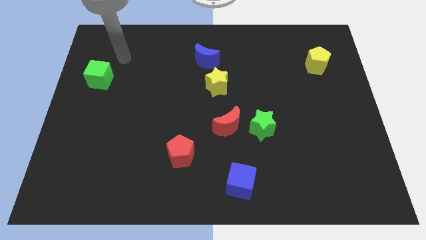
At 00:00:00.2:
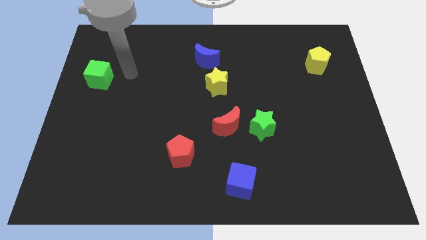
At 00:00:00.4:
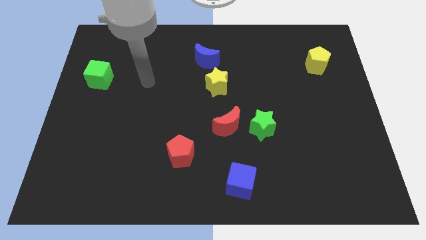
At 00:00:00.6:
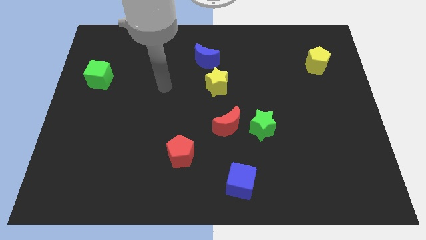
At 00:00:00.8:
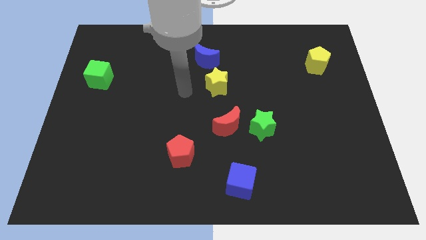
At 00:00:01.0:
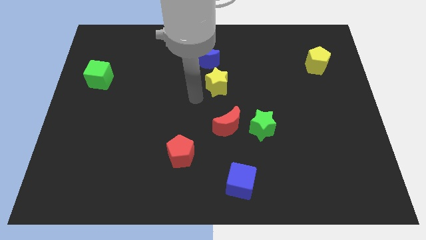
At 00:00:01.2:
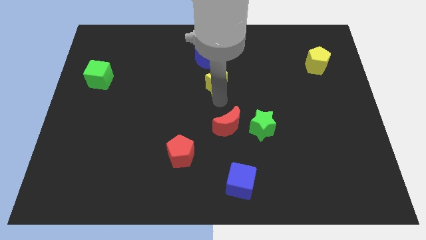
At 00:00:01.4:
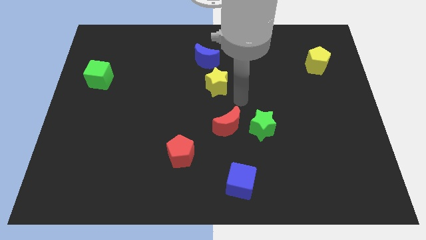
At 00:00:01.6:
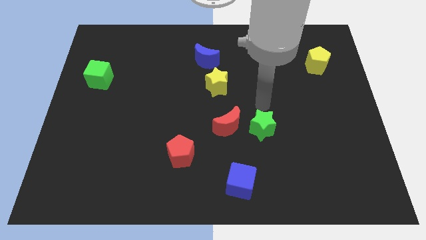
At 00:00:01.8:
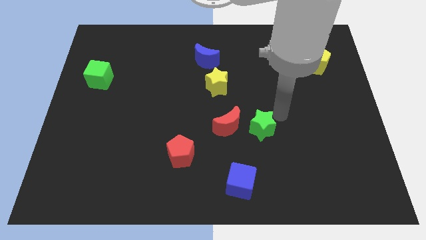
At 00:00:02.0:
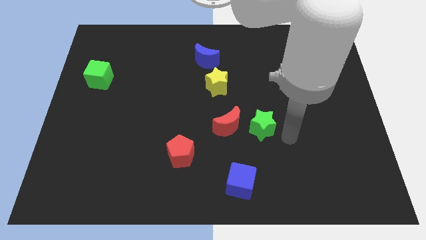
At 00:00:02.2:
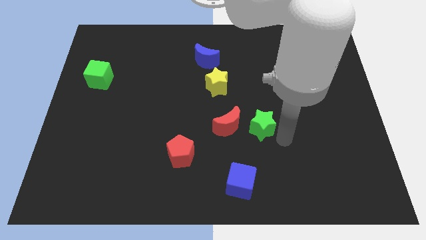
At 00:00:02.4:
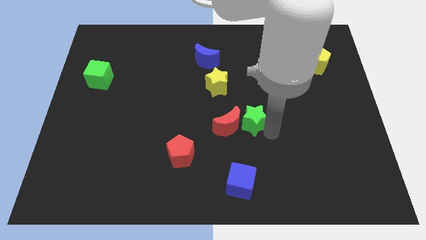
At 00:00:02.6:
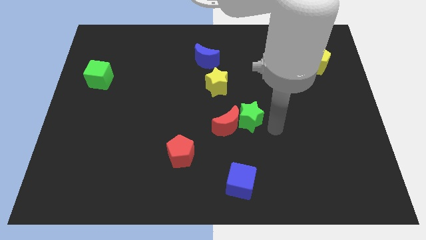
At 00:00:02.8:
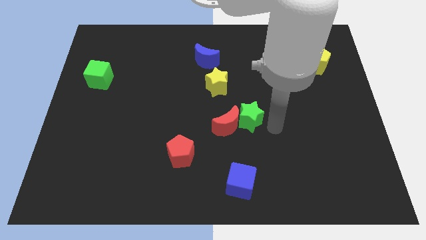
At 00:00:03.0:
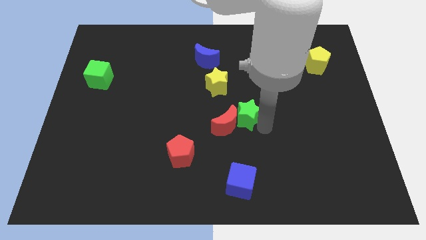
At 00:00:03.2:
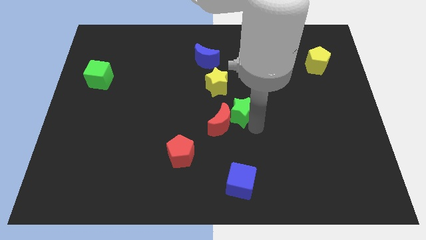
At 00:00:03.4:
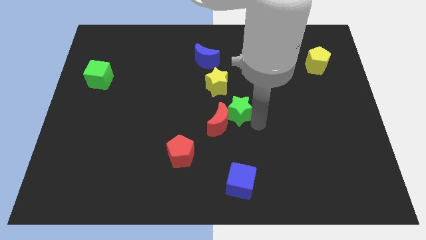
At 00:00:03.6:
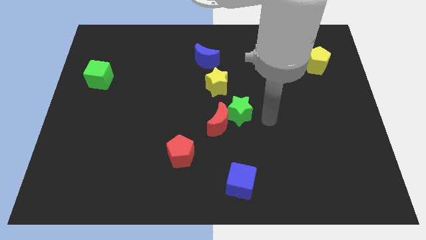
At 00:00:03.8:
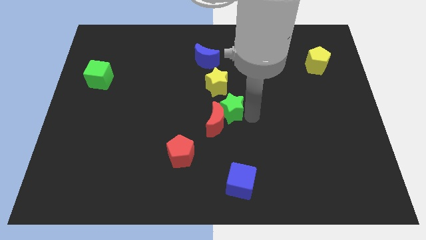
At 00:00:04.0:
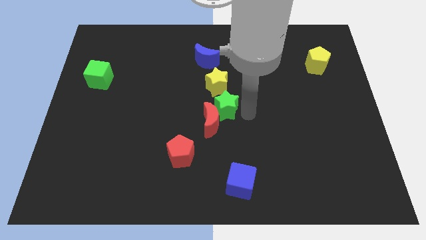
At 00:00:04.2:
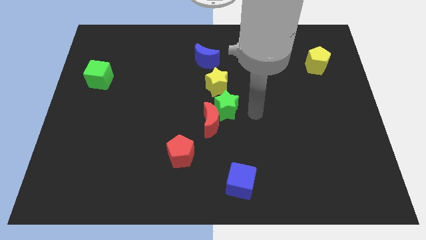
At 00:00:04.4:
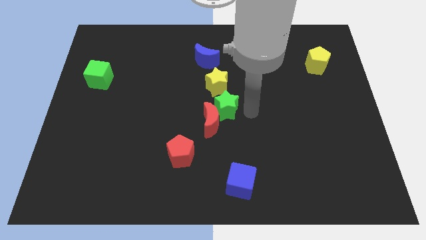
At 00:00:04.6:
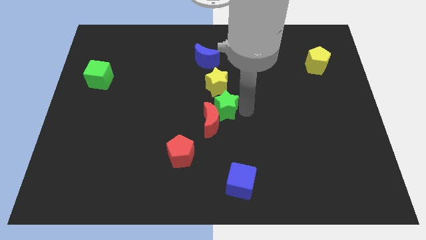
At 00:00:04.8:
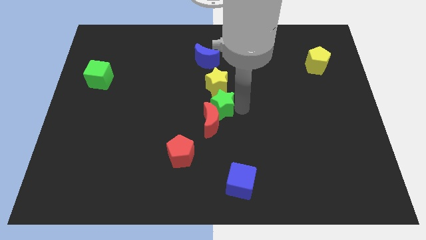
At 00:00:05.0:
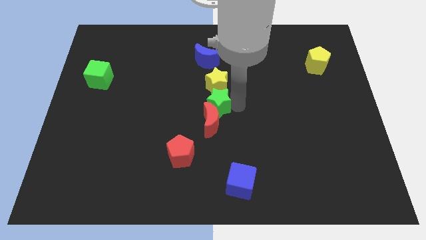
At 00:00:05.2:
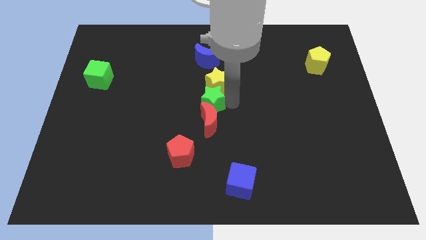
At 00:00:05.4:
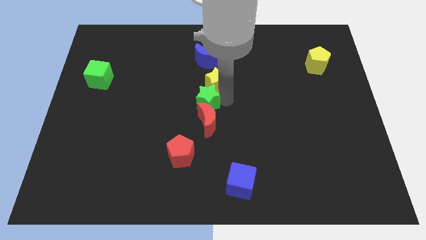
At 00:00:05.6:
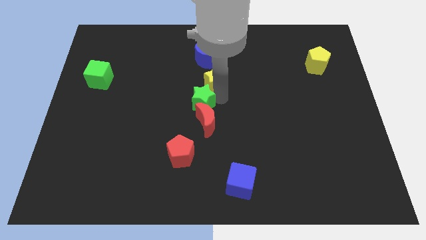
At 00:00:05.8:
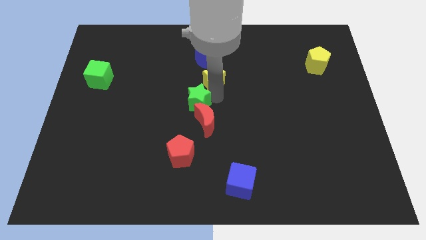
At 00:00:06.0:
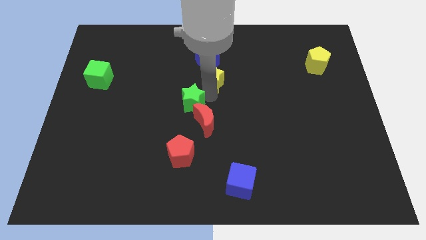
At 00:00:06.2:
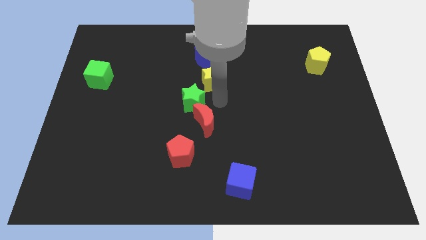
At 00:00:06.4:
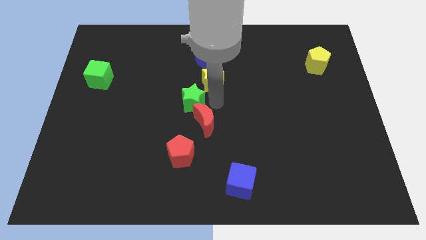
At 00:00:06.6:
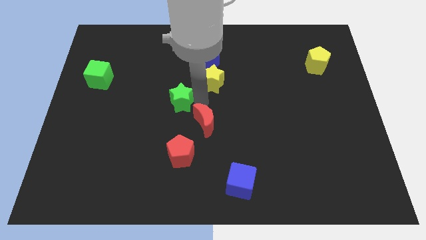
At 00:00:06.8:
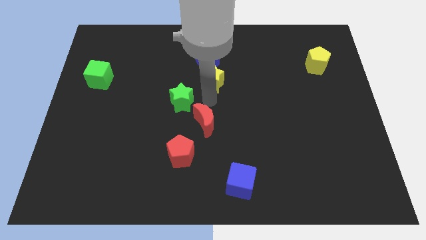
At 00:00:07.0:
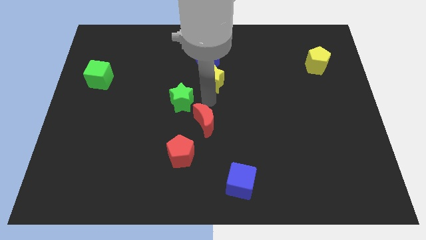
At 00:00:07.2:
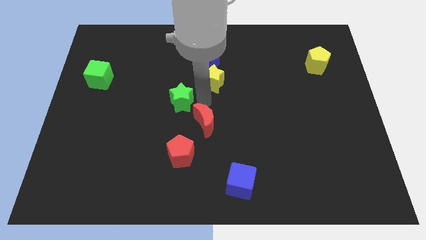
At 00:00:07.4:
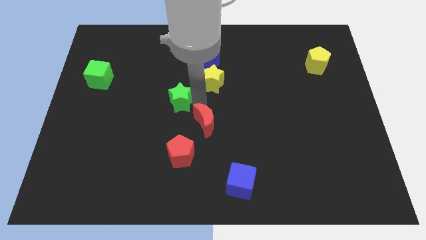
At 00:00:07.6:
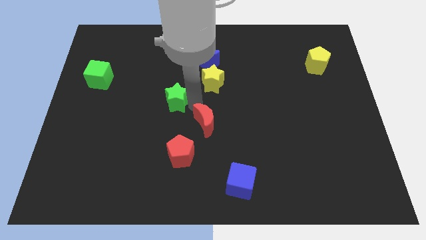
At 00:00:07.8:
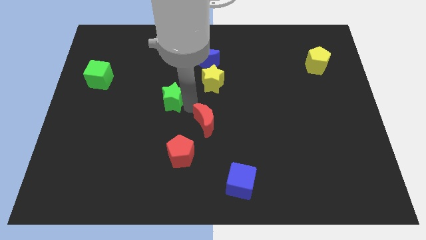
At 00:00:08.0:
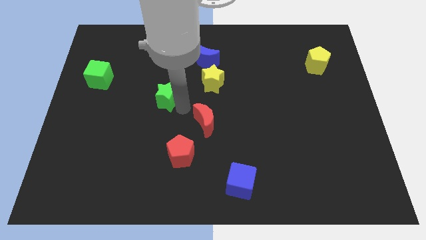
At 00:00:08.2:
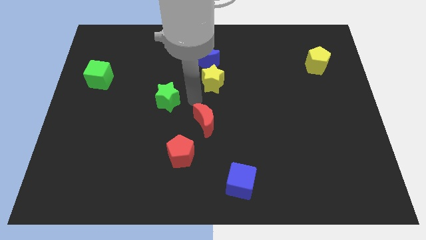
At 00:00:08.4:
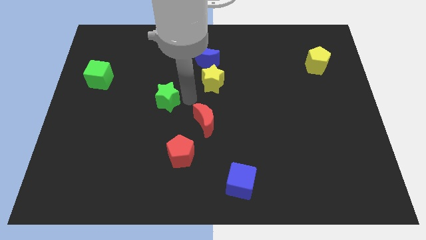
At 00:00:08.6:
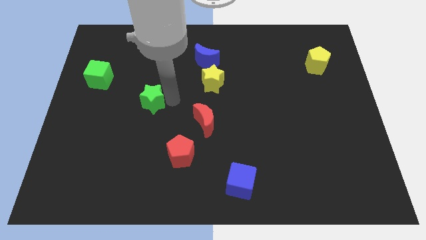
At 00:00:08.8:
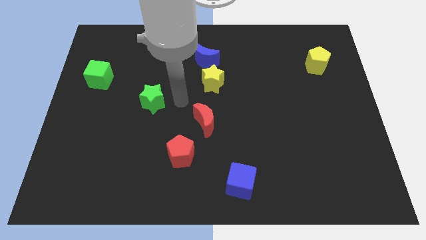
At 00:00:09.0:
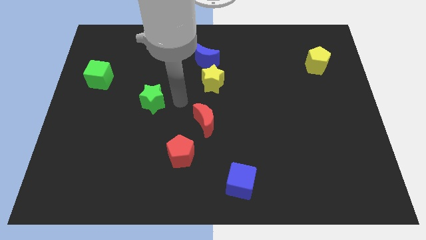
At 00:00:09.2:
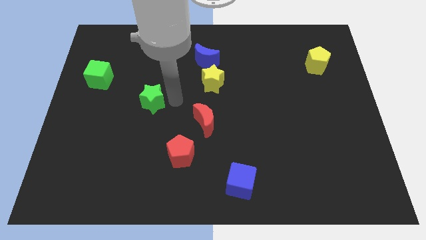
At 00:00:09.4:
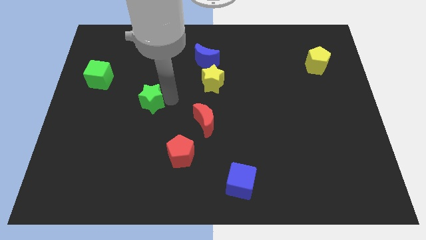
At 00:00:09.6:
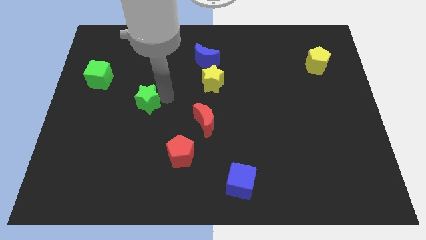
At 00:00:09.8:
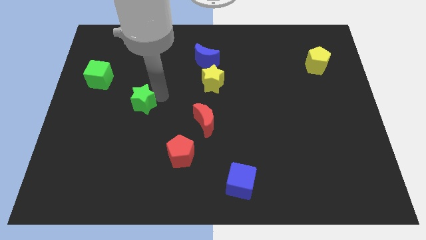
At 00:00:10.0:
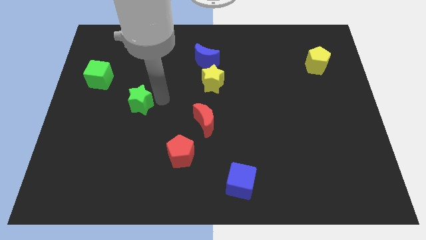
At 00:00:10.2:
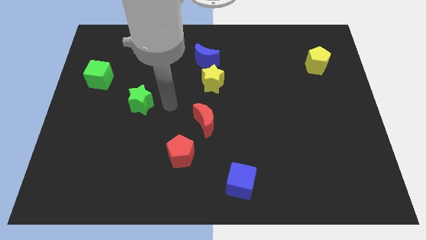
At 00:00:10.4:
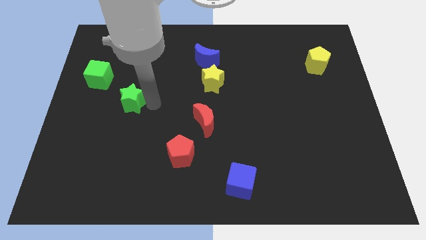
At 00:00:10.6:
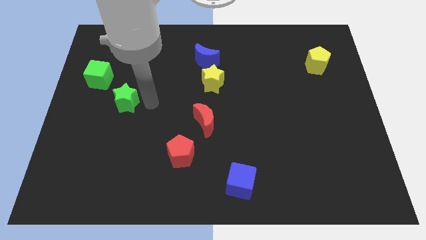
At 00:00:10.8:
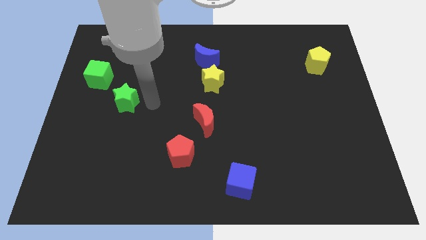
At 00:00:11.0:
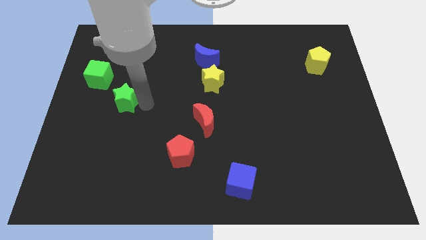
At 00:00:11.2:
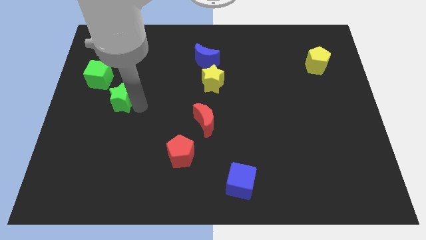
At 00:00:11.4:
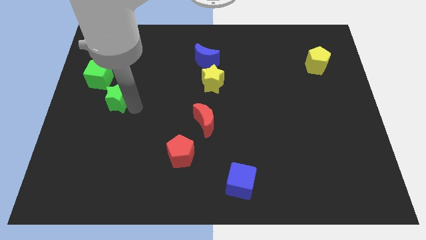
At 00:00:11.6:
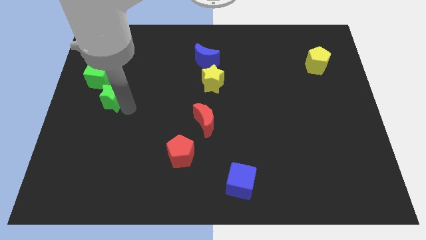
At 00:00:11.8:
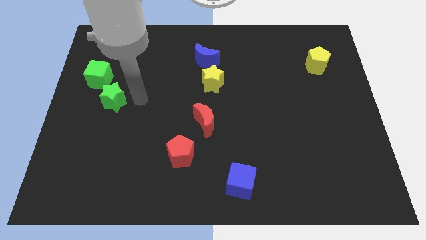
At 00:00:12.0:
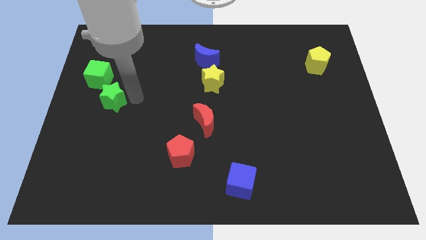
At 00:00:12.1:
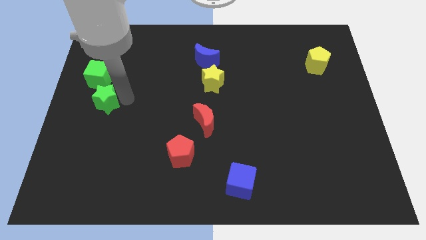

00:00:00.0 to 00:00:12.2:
slide the green star to the left side
